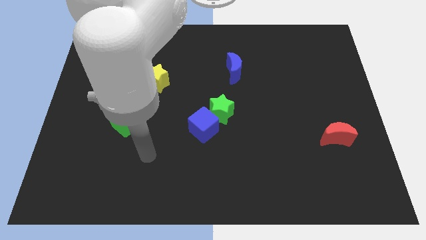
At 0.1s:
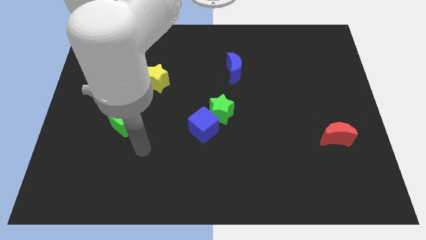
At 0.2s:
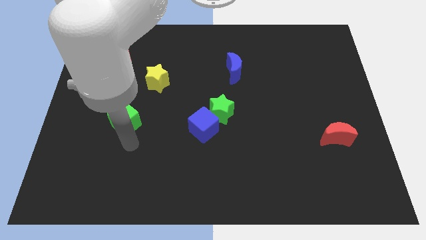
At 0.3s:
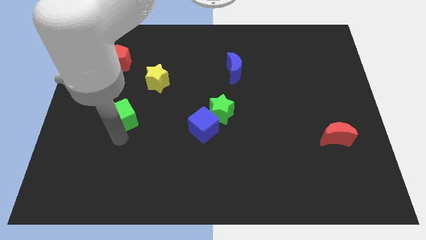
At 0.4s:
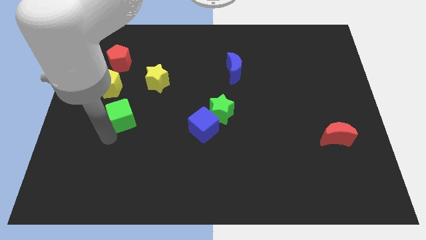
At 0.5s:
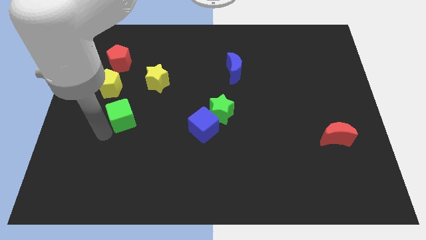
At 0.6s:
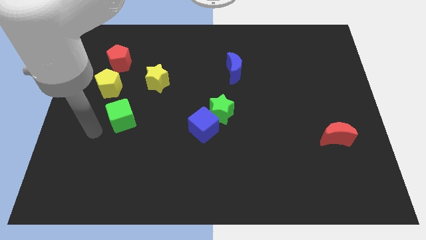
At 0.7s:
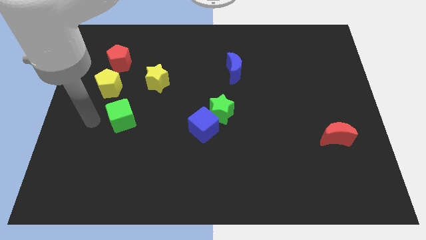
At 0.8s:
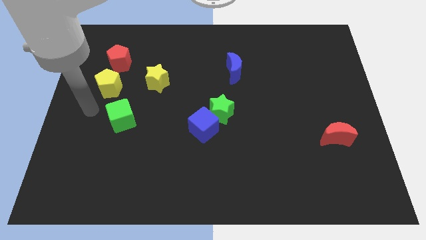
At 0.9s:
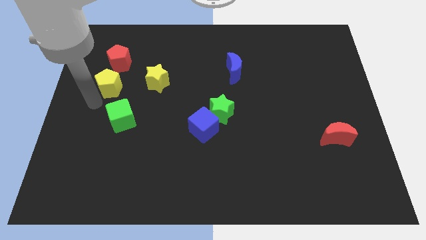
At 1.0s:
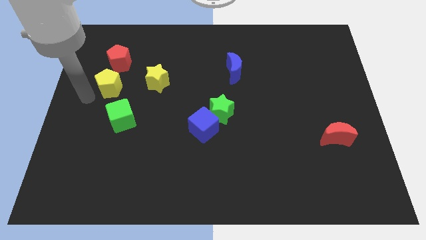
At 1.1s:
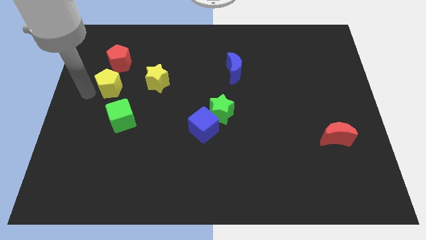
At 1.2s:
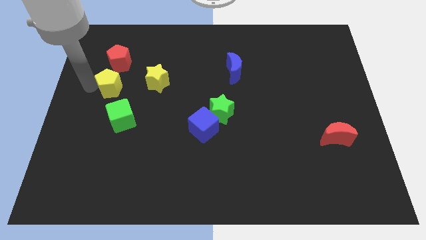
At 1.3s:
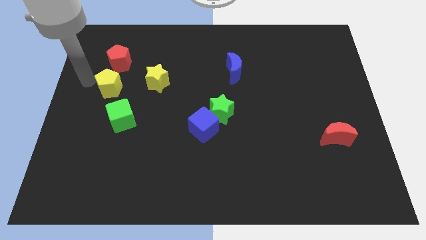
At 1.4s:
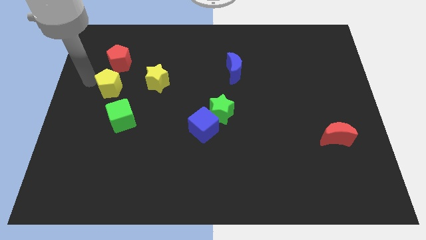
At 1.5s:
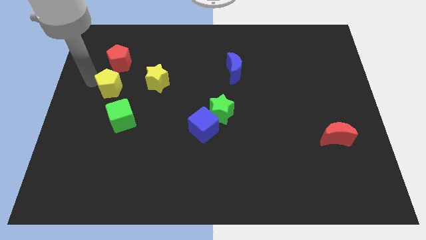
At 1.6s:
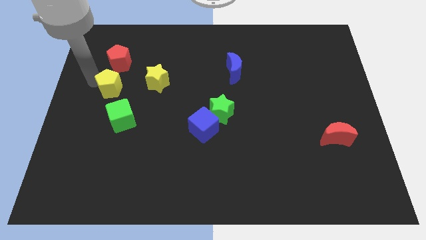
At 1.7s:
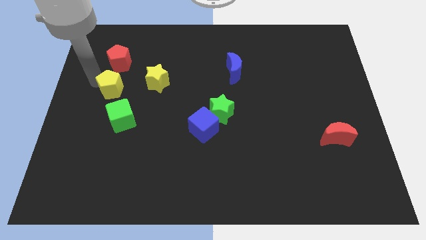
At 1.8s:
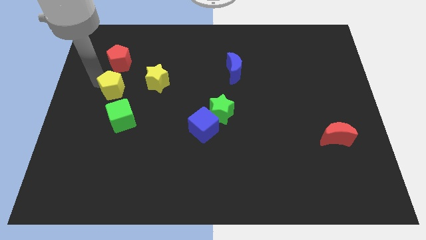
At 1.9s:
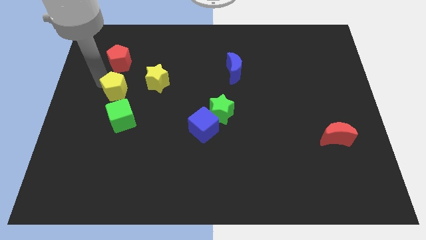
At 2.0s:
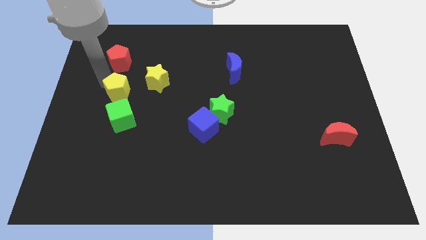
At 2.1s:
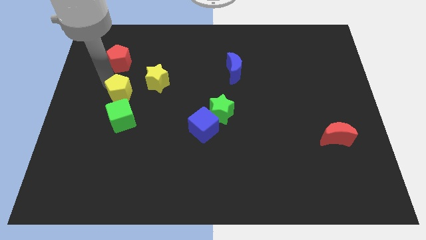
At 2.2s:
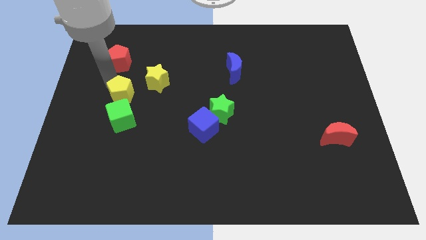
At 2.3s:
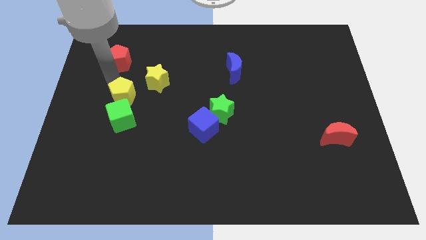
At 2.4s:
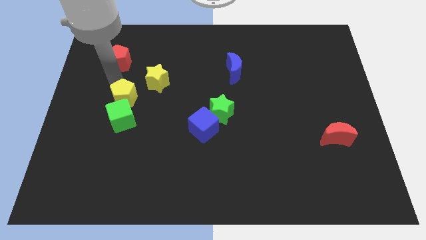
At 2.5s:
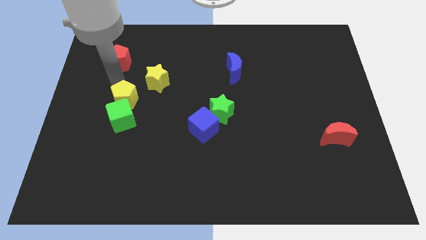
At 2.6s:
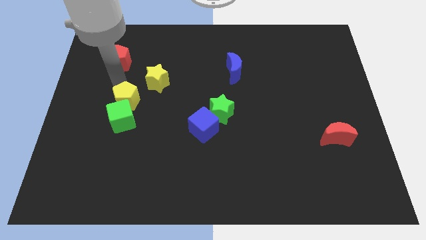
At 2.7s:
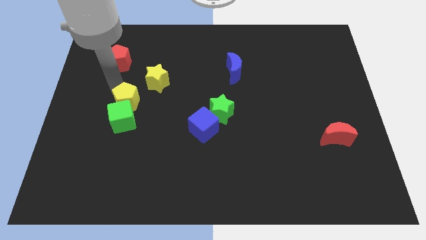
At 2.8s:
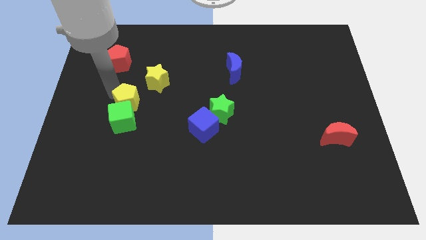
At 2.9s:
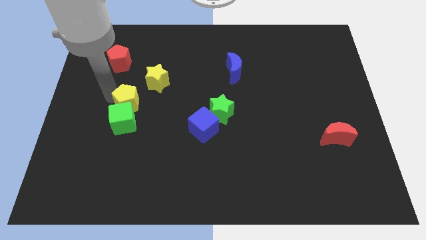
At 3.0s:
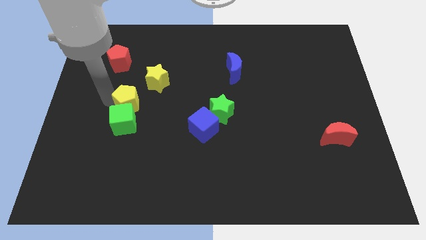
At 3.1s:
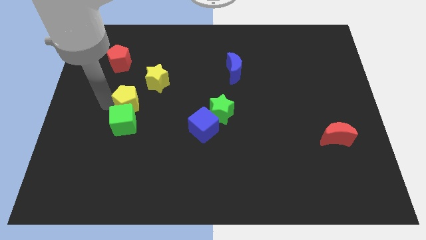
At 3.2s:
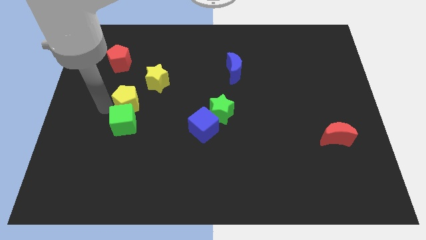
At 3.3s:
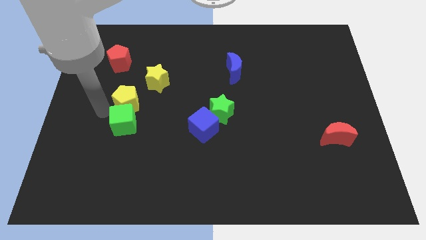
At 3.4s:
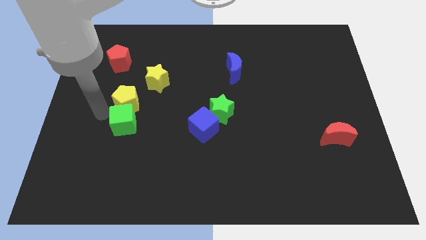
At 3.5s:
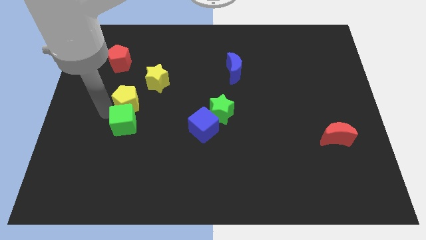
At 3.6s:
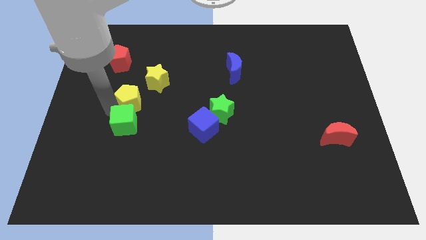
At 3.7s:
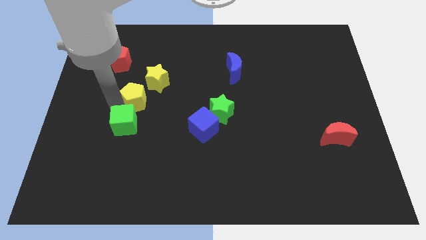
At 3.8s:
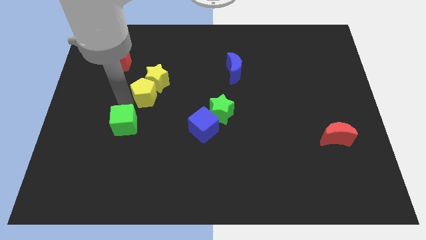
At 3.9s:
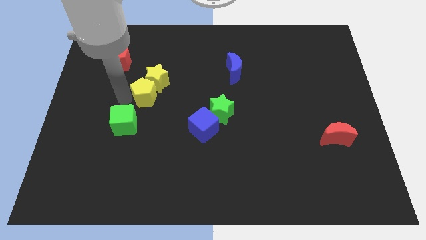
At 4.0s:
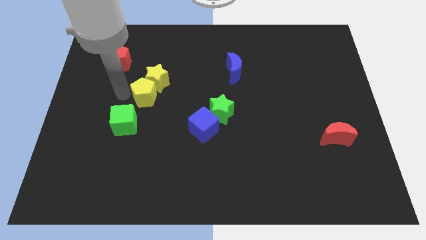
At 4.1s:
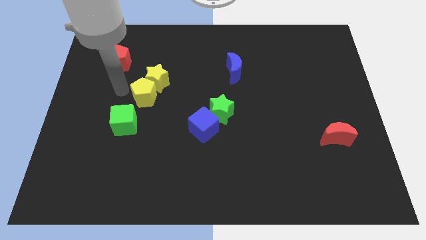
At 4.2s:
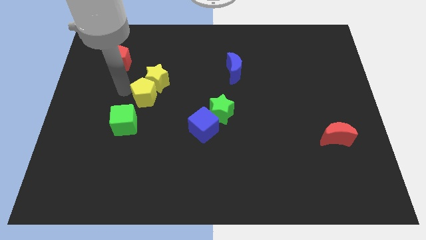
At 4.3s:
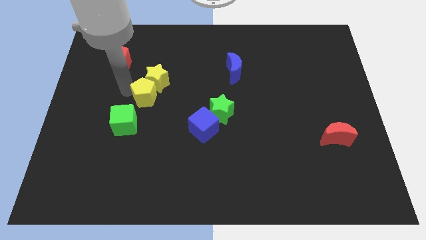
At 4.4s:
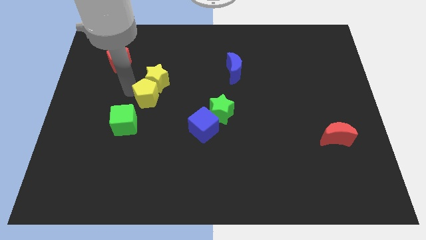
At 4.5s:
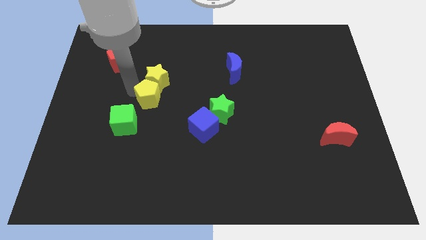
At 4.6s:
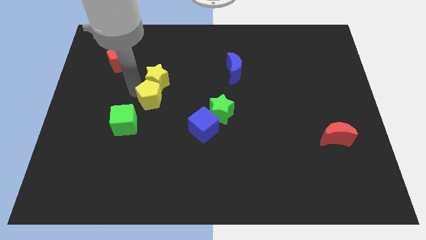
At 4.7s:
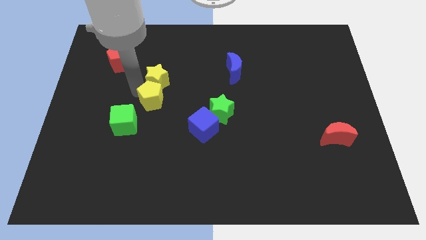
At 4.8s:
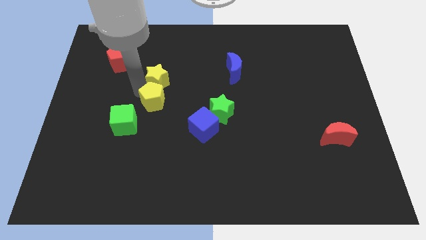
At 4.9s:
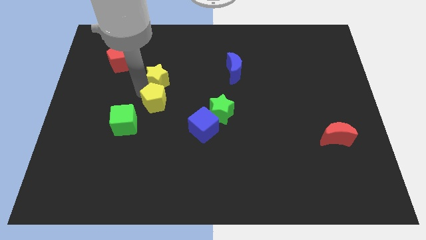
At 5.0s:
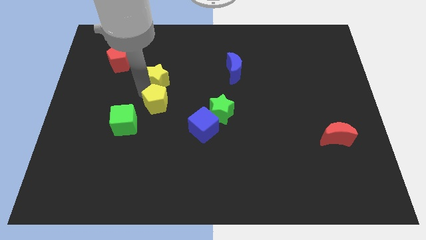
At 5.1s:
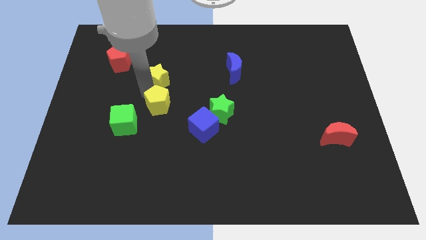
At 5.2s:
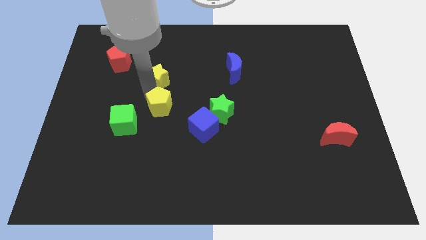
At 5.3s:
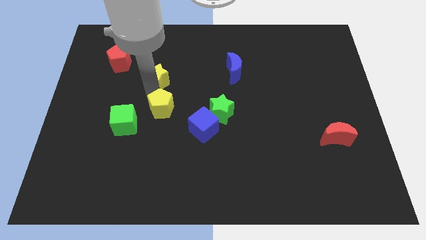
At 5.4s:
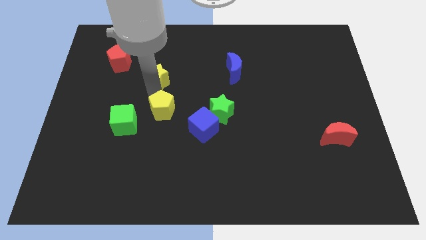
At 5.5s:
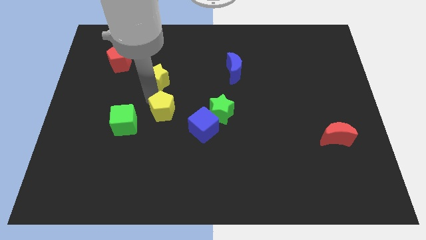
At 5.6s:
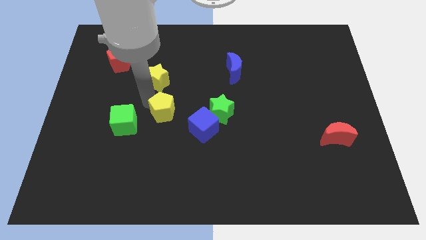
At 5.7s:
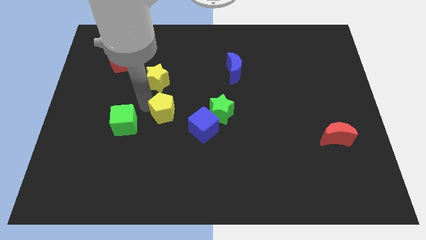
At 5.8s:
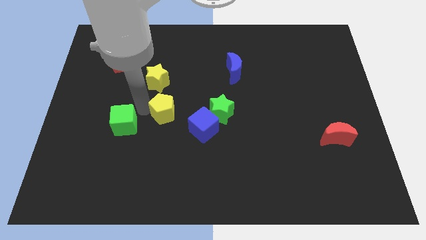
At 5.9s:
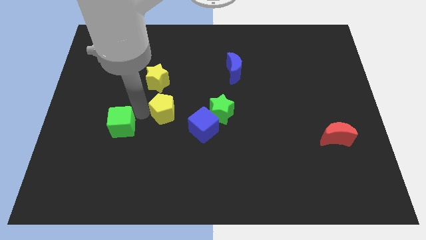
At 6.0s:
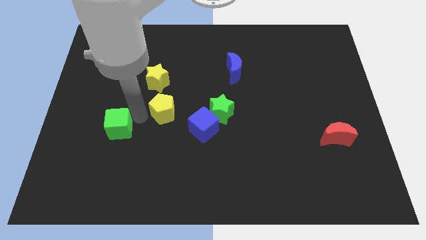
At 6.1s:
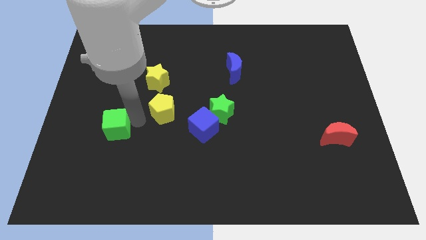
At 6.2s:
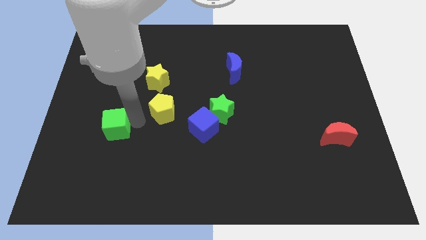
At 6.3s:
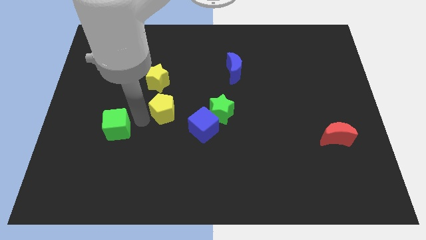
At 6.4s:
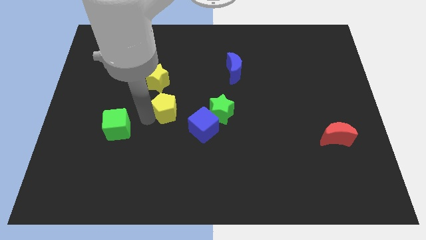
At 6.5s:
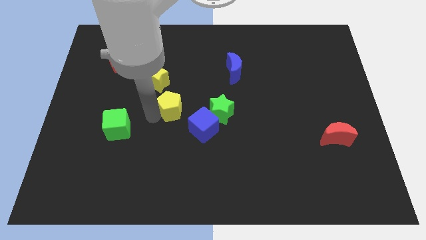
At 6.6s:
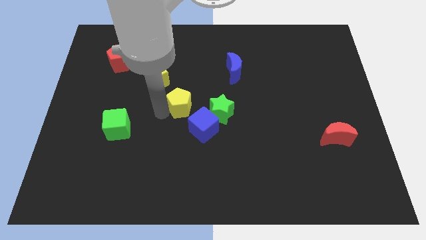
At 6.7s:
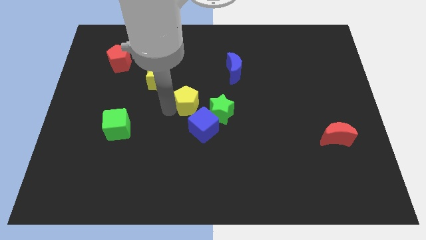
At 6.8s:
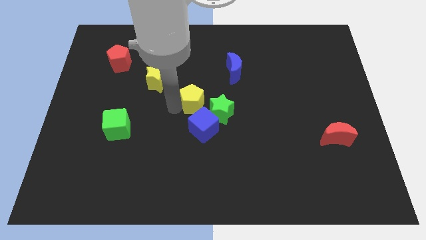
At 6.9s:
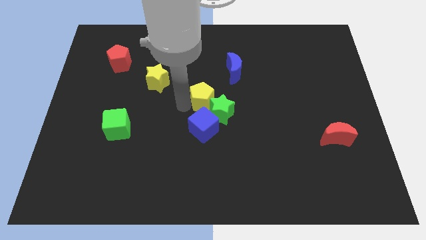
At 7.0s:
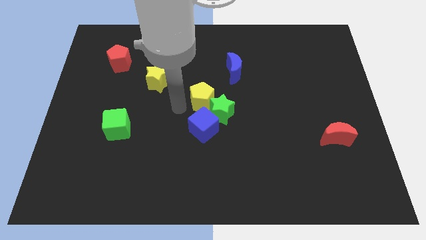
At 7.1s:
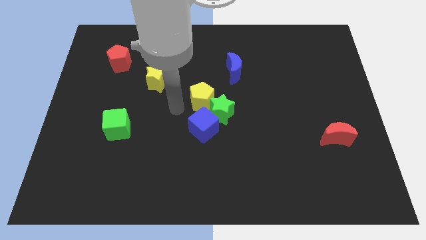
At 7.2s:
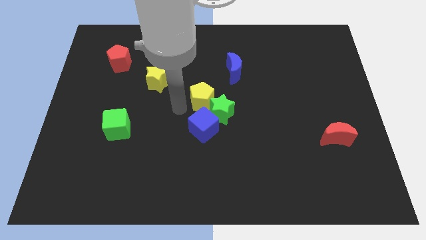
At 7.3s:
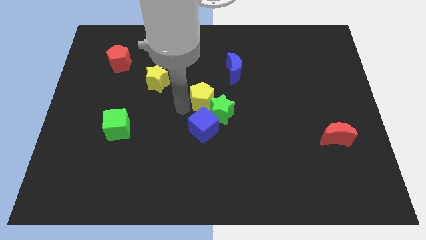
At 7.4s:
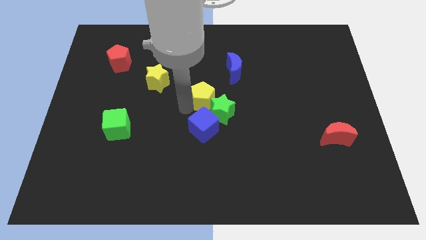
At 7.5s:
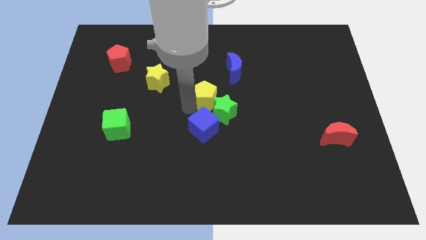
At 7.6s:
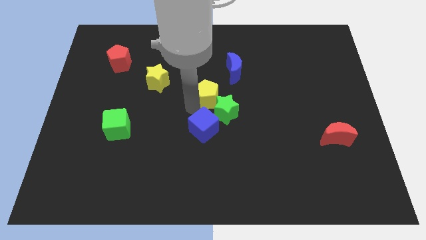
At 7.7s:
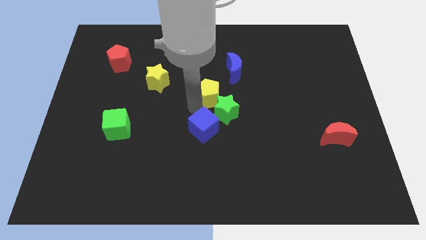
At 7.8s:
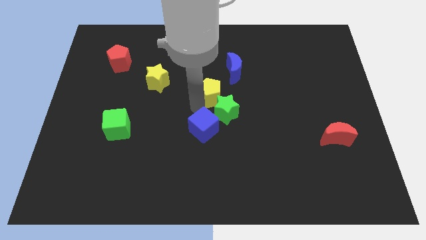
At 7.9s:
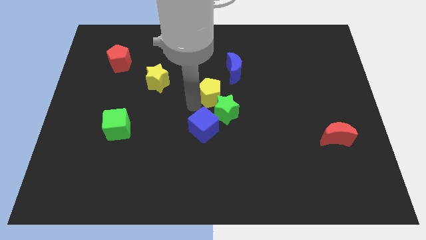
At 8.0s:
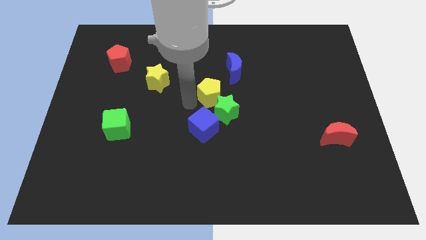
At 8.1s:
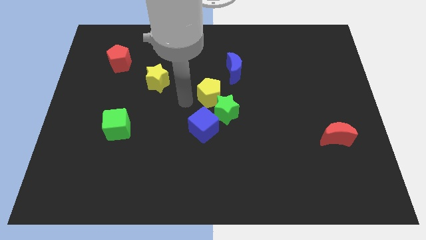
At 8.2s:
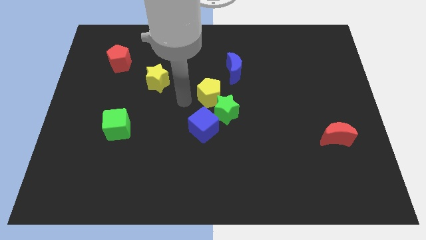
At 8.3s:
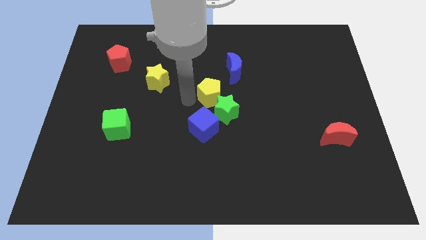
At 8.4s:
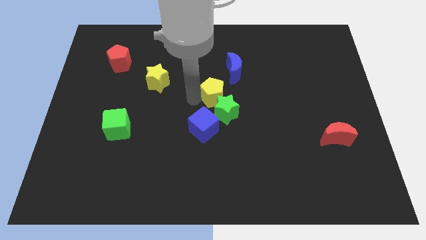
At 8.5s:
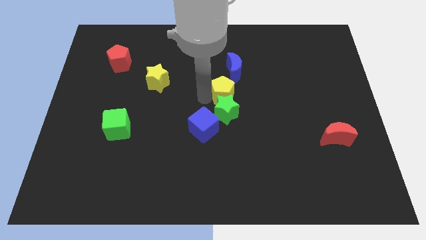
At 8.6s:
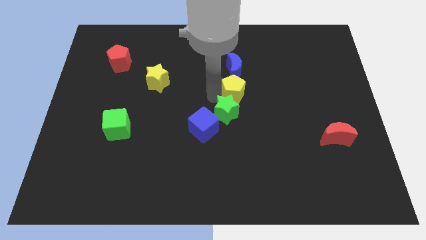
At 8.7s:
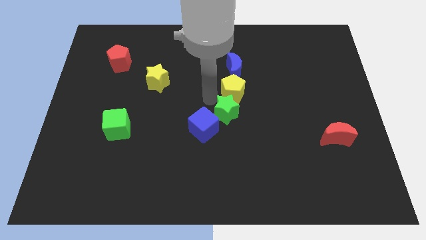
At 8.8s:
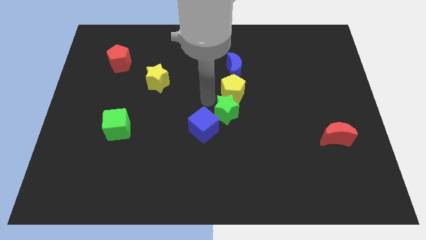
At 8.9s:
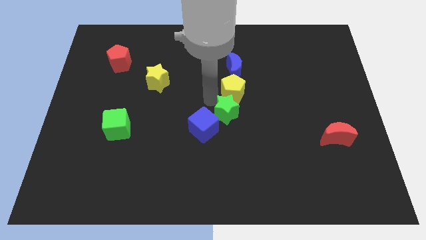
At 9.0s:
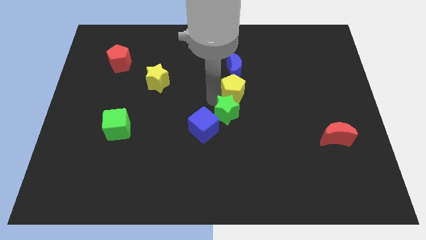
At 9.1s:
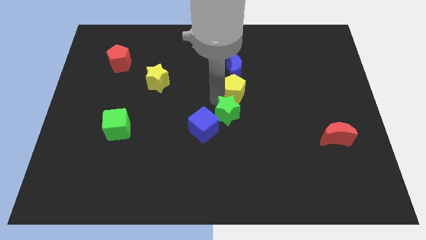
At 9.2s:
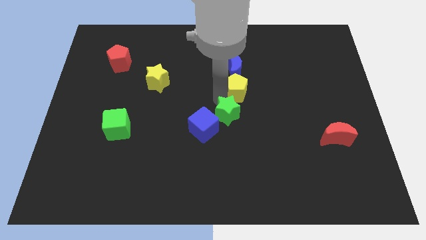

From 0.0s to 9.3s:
push the yellow pentagon diagonally down and to the right of the blue moon
